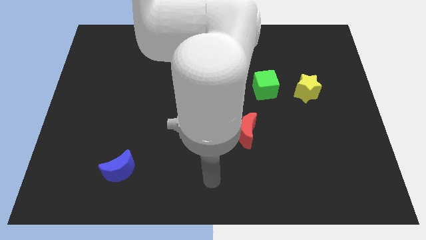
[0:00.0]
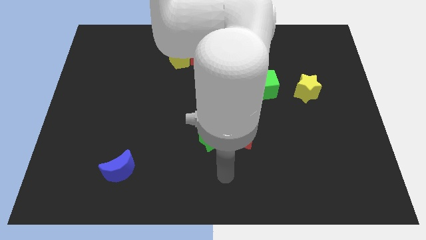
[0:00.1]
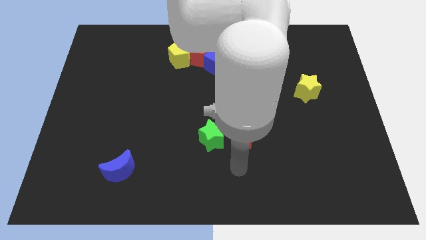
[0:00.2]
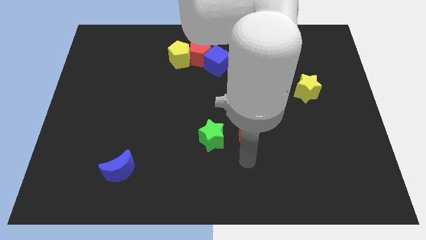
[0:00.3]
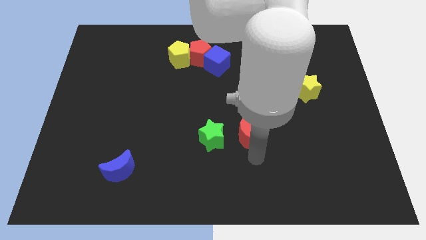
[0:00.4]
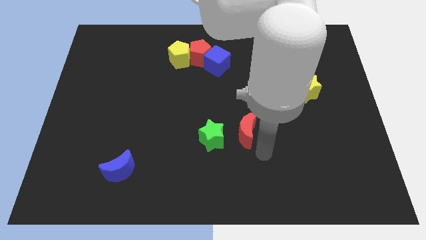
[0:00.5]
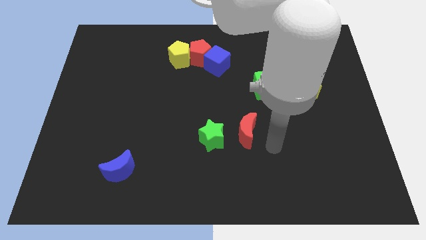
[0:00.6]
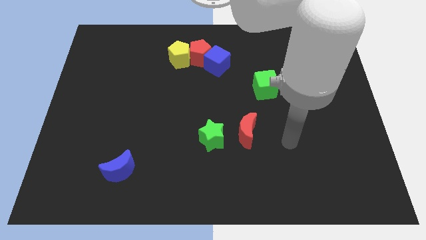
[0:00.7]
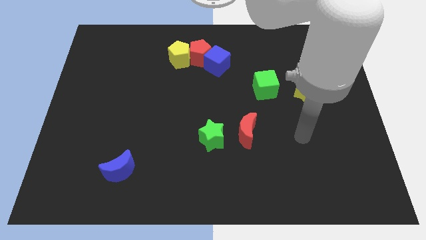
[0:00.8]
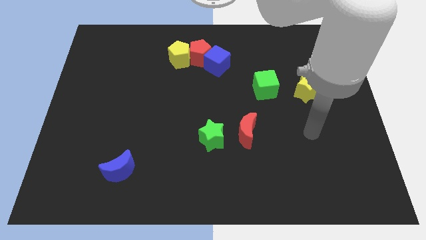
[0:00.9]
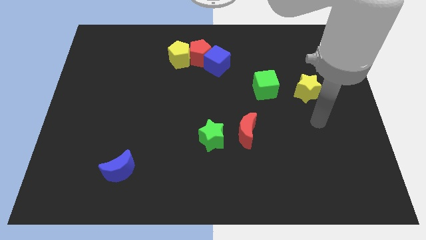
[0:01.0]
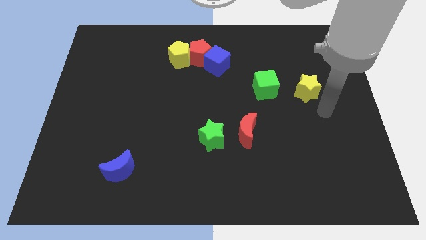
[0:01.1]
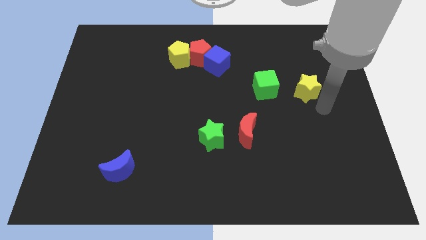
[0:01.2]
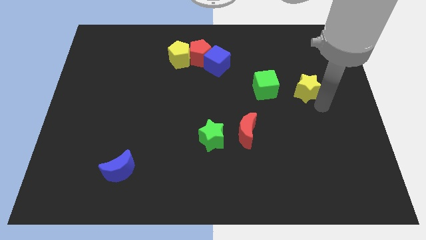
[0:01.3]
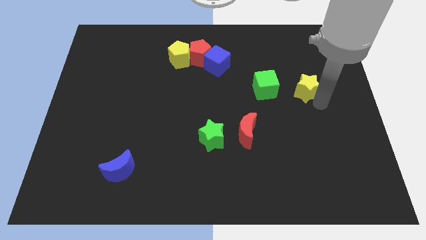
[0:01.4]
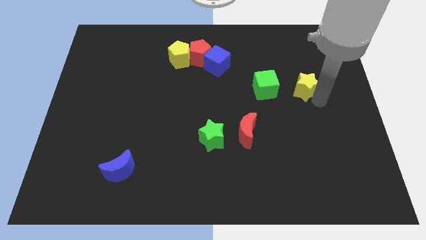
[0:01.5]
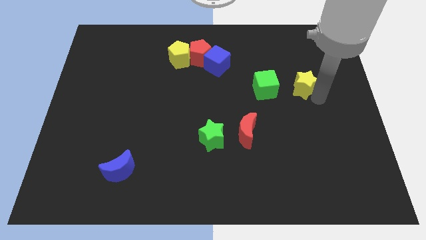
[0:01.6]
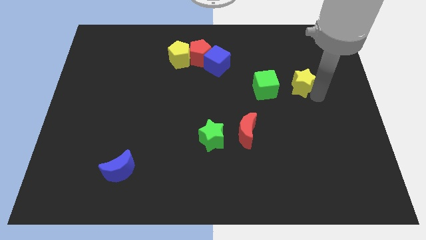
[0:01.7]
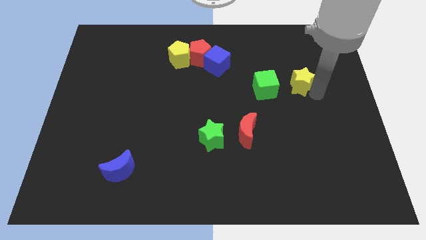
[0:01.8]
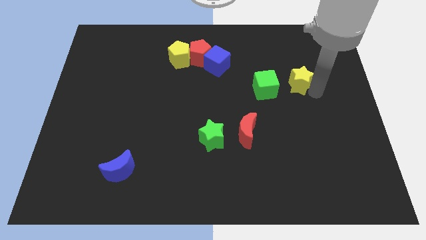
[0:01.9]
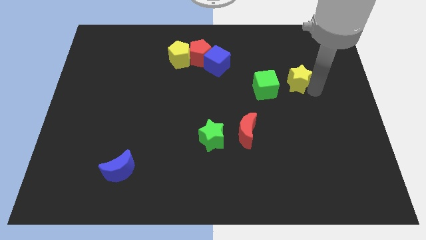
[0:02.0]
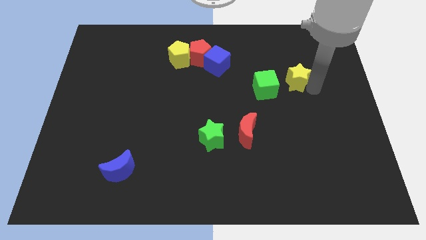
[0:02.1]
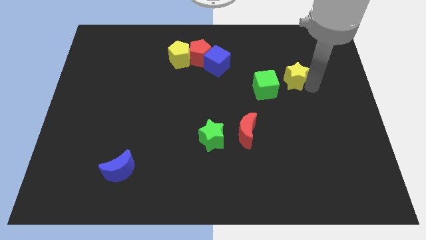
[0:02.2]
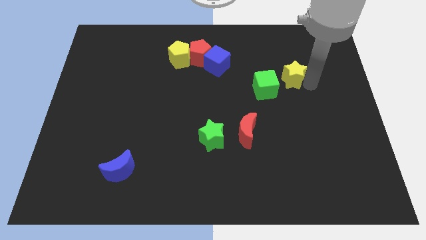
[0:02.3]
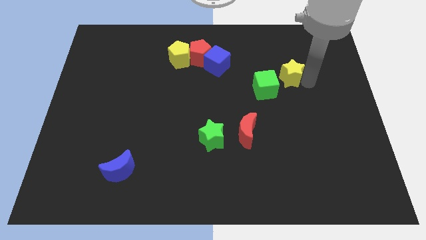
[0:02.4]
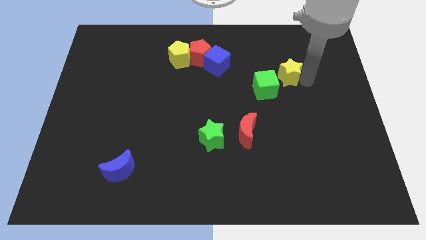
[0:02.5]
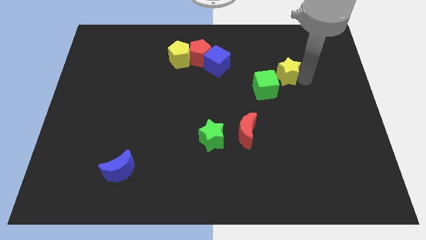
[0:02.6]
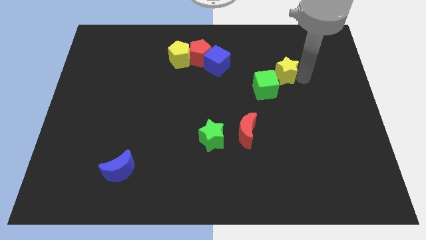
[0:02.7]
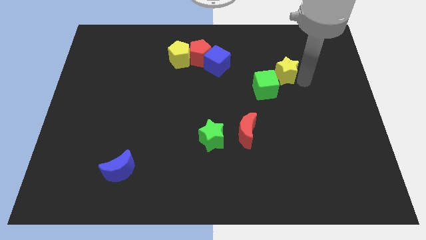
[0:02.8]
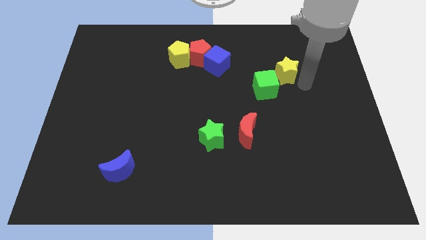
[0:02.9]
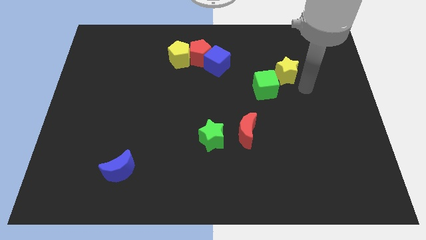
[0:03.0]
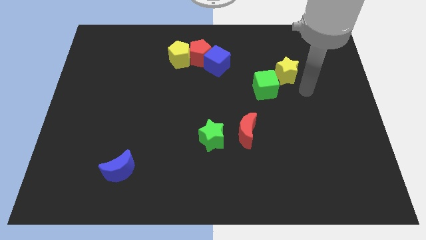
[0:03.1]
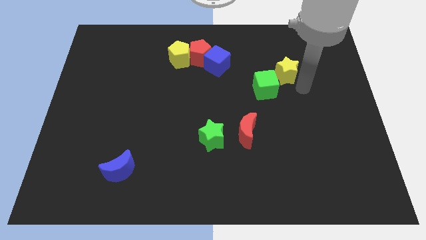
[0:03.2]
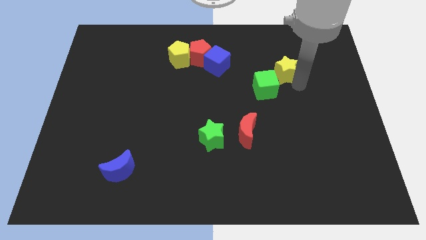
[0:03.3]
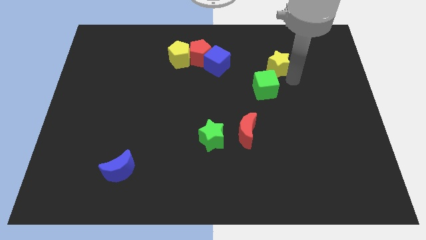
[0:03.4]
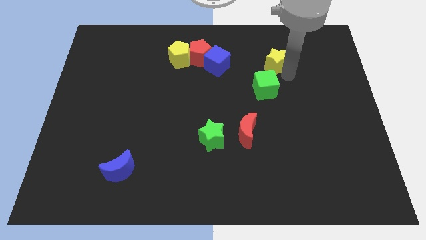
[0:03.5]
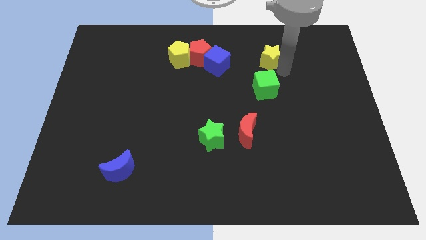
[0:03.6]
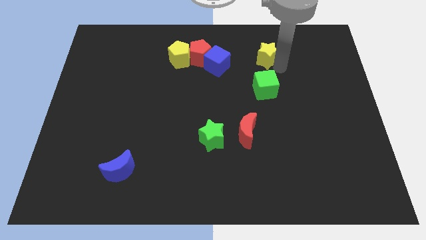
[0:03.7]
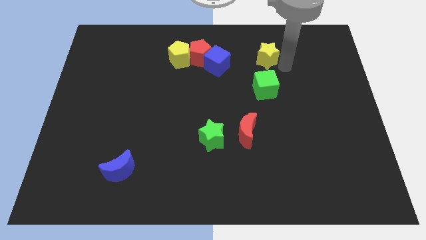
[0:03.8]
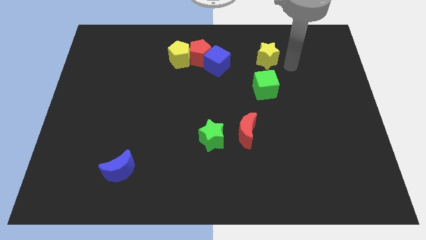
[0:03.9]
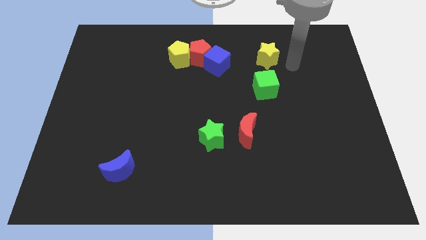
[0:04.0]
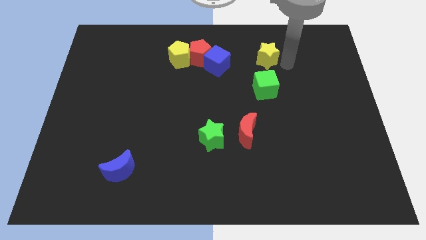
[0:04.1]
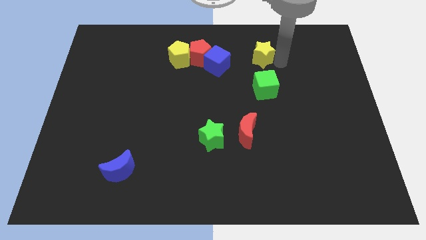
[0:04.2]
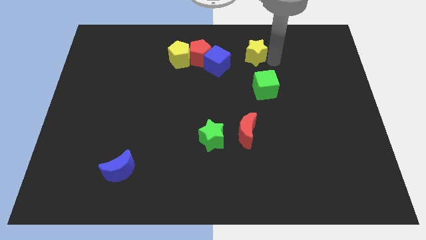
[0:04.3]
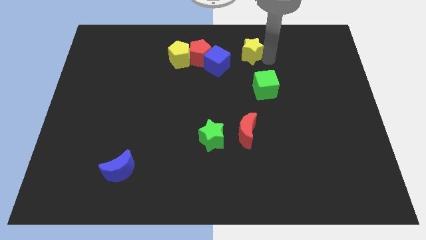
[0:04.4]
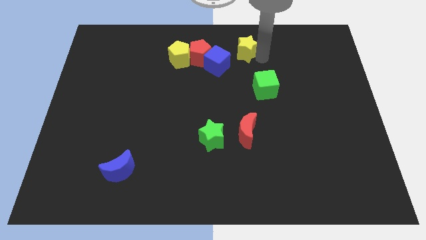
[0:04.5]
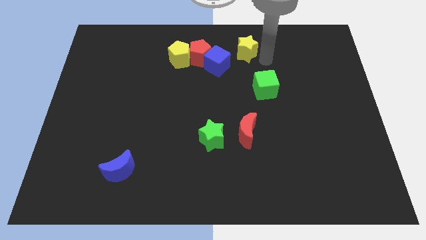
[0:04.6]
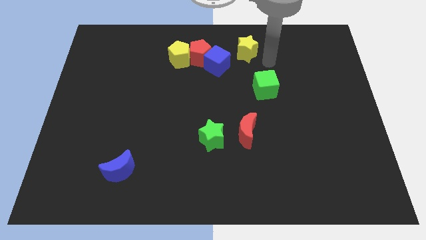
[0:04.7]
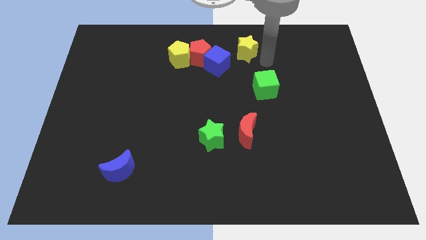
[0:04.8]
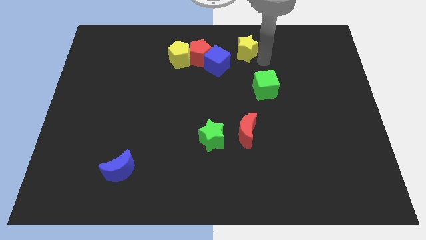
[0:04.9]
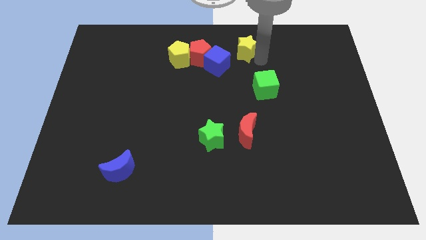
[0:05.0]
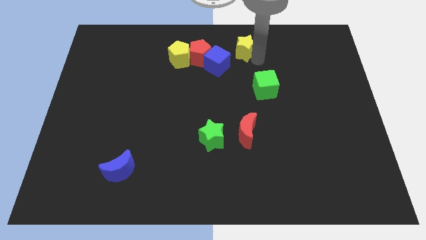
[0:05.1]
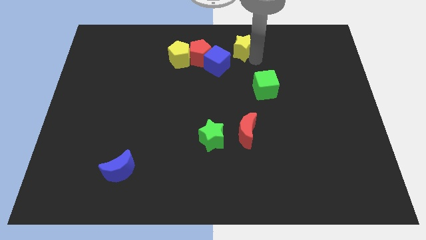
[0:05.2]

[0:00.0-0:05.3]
slide the yellow star to the top

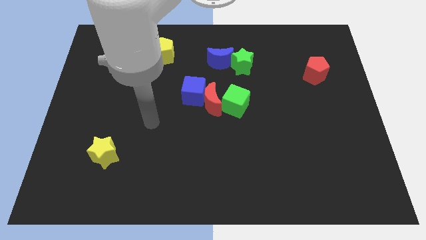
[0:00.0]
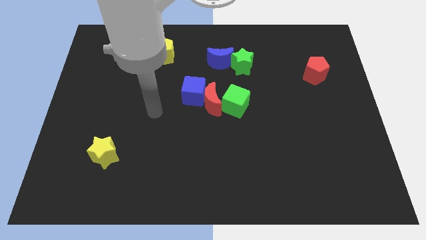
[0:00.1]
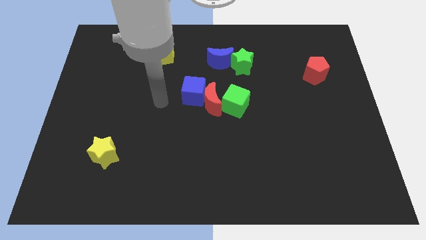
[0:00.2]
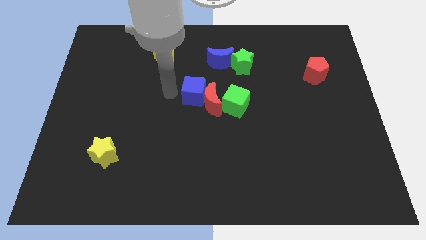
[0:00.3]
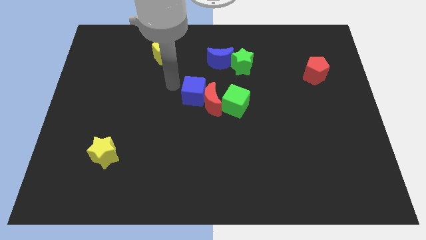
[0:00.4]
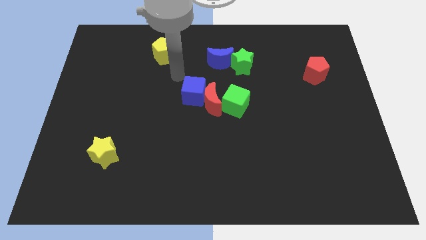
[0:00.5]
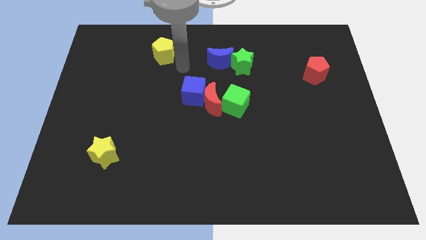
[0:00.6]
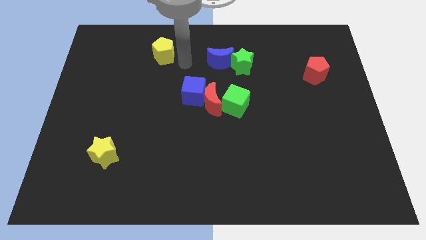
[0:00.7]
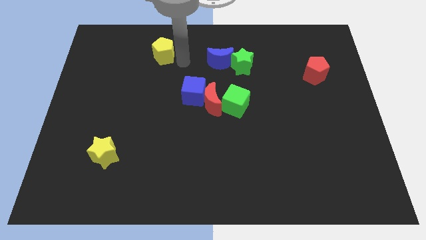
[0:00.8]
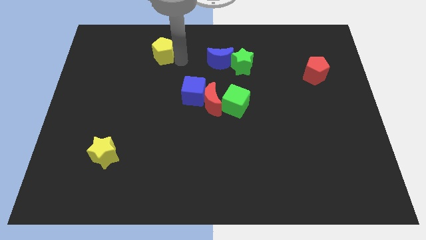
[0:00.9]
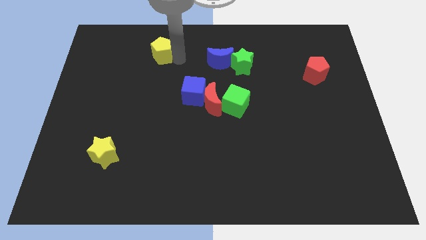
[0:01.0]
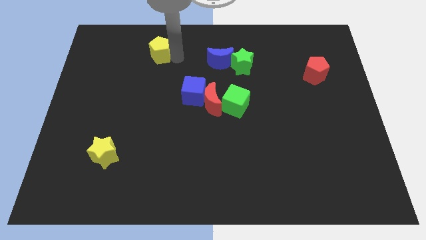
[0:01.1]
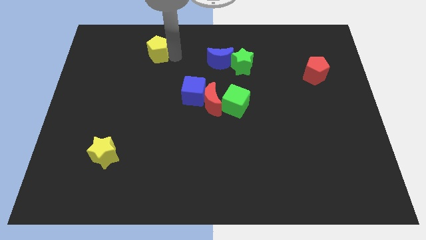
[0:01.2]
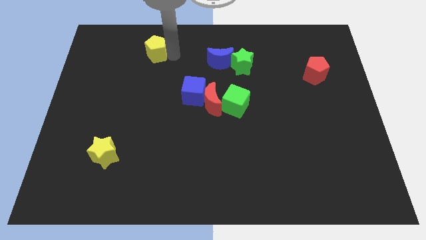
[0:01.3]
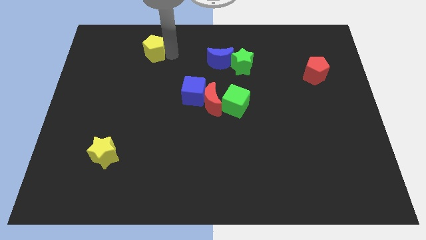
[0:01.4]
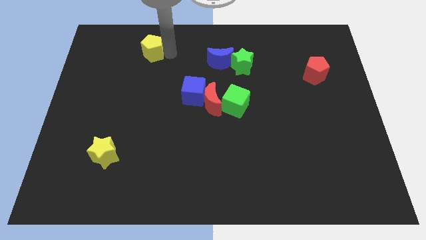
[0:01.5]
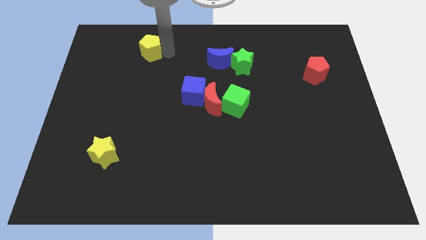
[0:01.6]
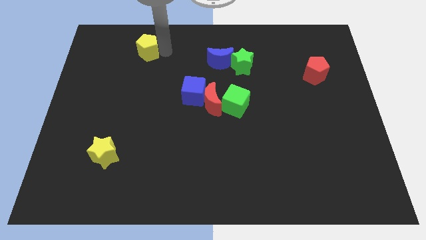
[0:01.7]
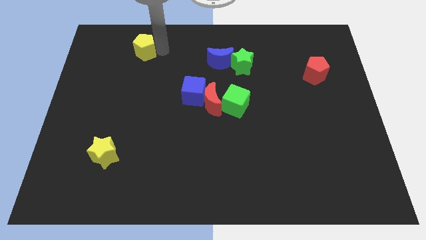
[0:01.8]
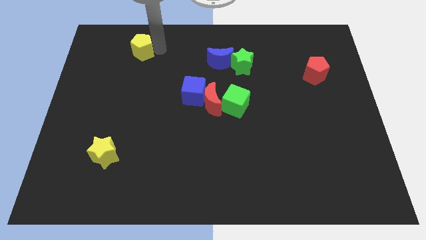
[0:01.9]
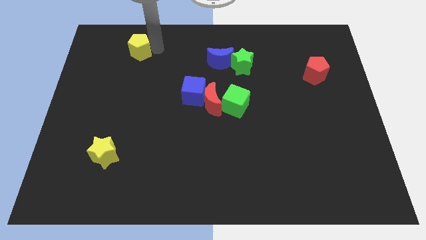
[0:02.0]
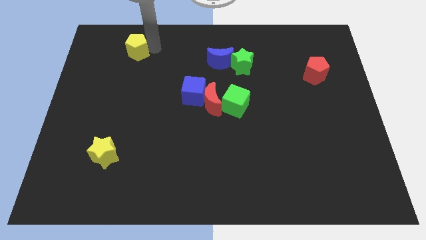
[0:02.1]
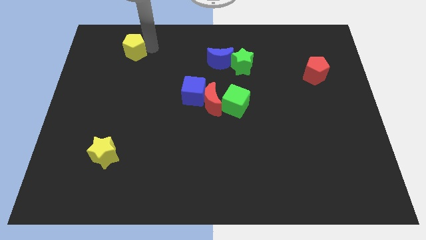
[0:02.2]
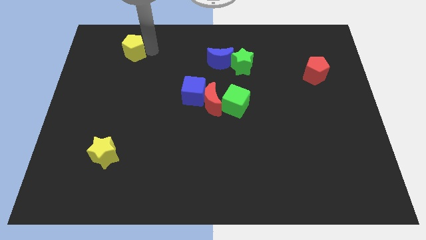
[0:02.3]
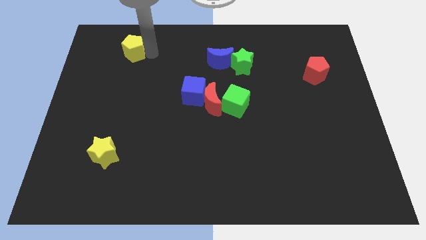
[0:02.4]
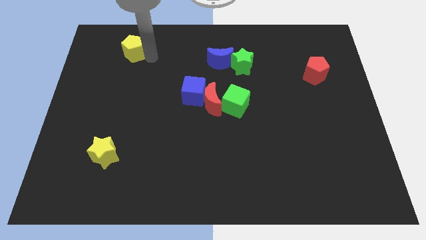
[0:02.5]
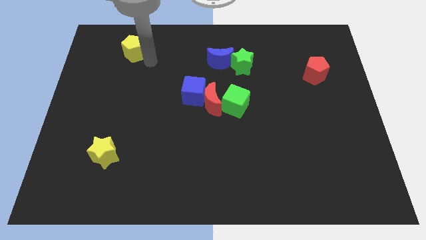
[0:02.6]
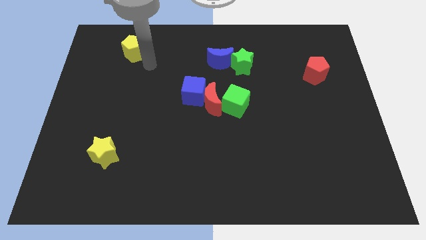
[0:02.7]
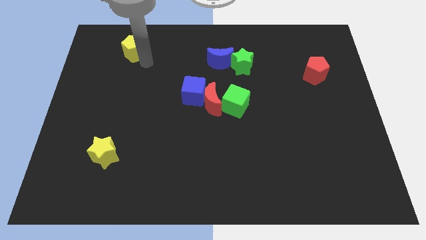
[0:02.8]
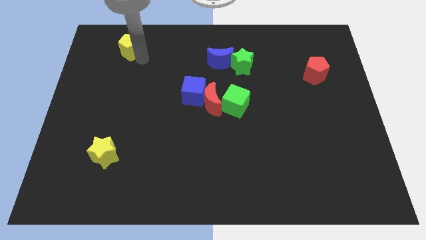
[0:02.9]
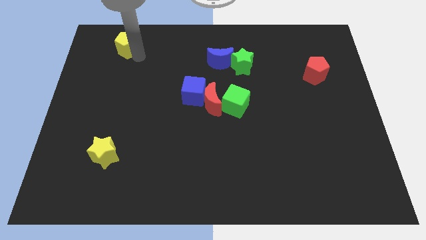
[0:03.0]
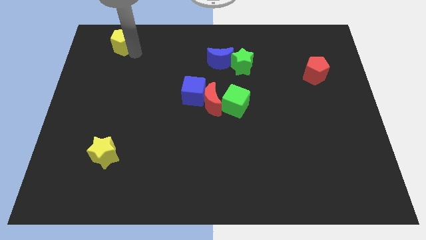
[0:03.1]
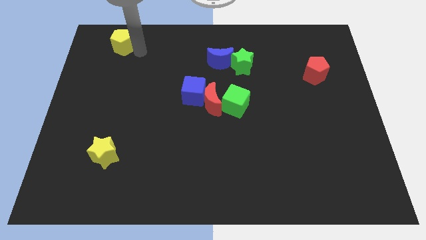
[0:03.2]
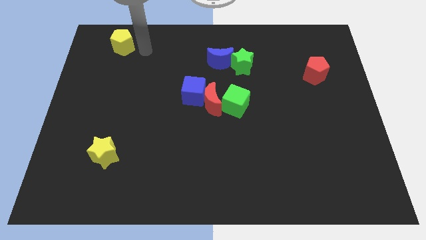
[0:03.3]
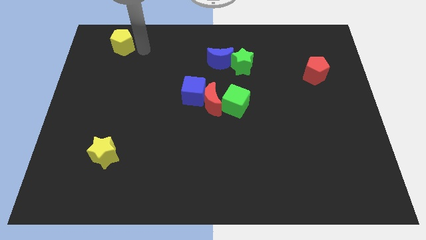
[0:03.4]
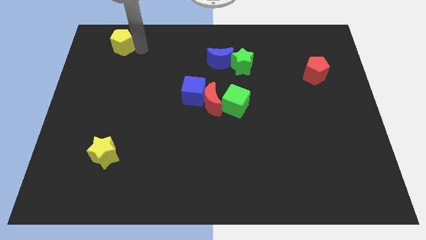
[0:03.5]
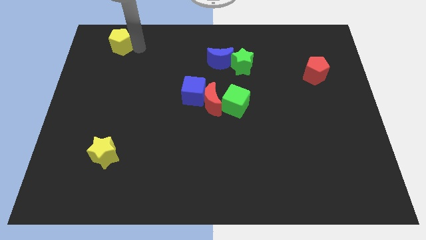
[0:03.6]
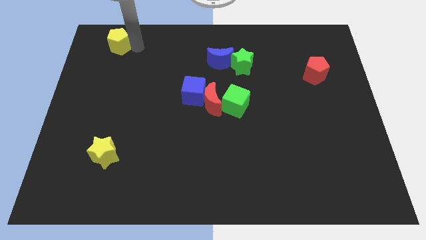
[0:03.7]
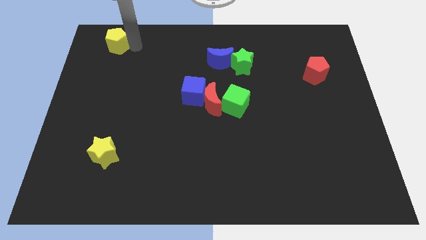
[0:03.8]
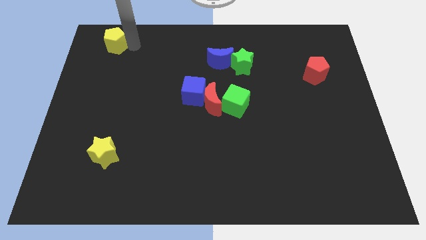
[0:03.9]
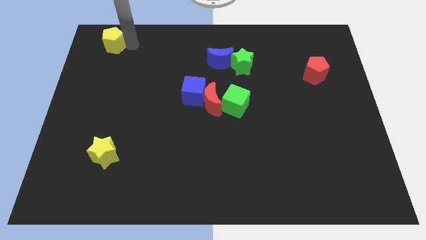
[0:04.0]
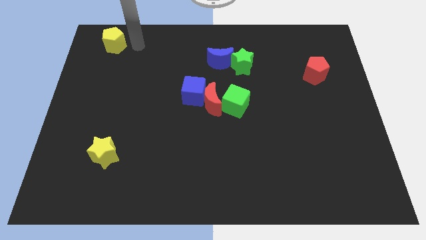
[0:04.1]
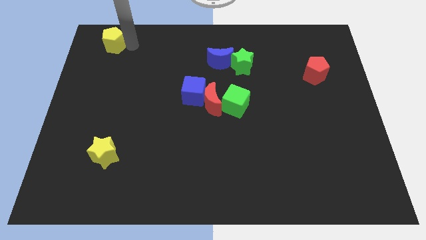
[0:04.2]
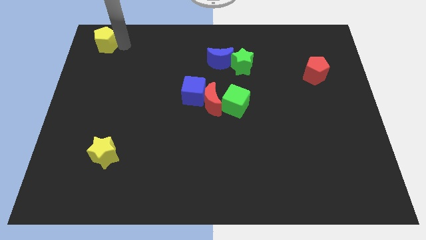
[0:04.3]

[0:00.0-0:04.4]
push the yellow pentagon to the upper left corner
